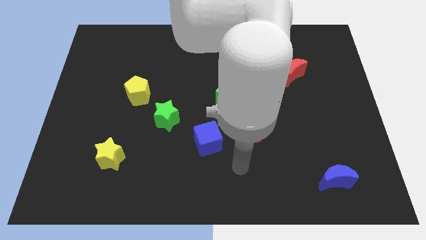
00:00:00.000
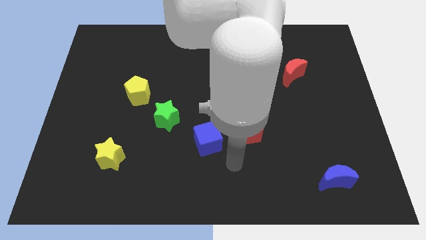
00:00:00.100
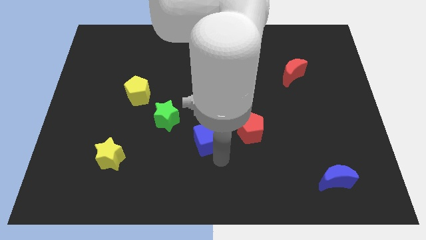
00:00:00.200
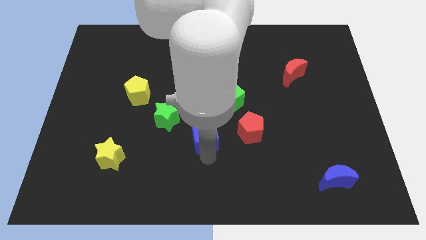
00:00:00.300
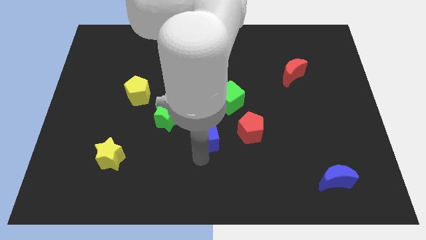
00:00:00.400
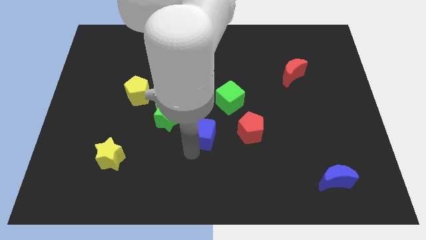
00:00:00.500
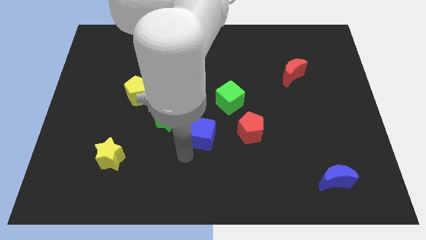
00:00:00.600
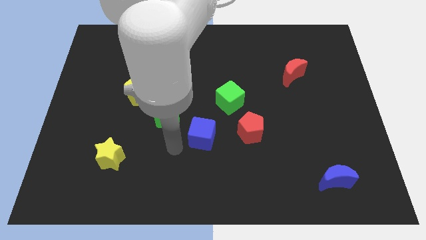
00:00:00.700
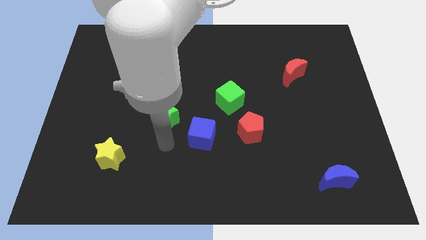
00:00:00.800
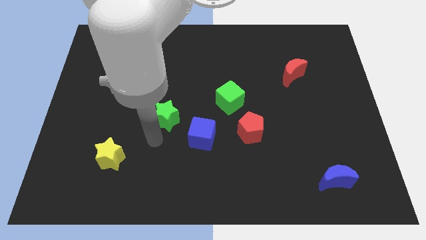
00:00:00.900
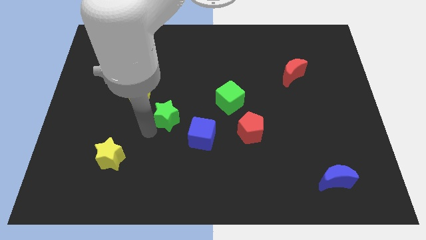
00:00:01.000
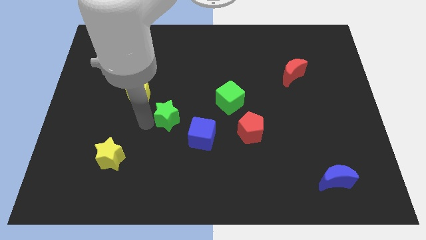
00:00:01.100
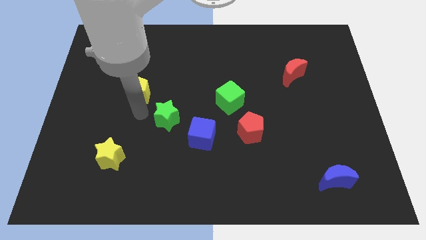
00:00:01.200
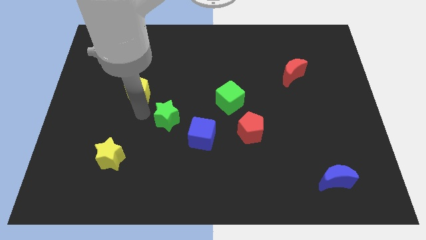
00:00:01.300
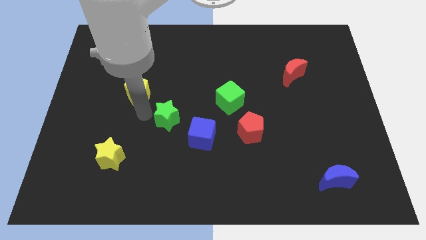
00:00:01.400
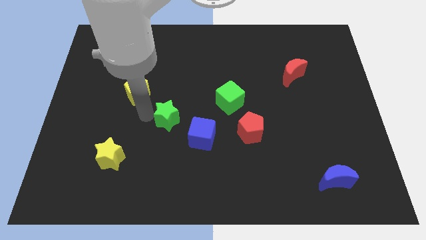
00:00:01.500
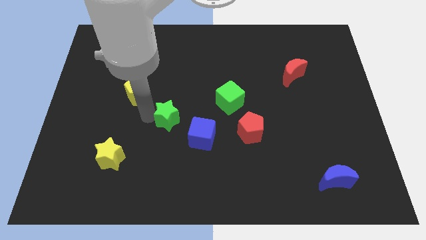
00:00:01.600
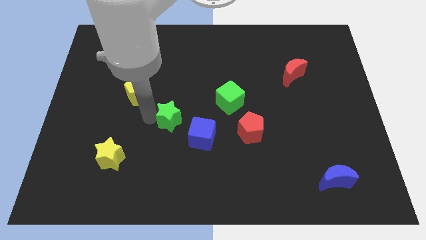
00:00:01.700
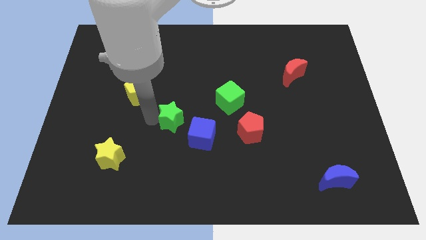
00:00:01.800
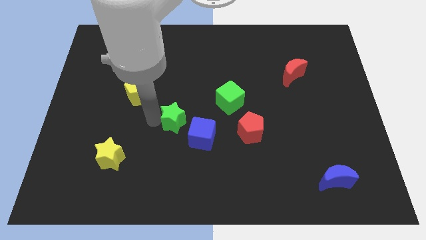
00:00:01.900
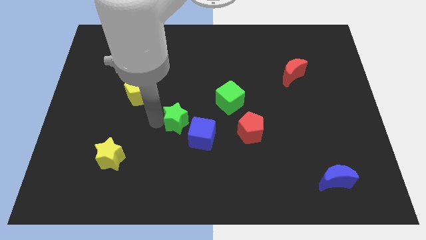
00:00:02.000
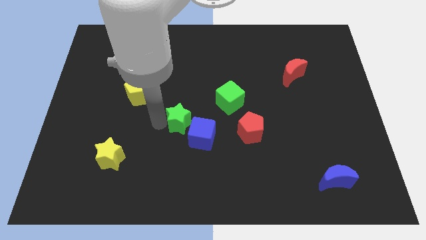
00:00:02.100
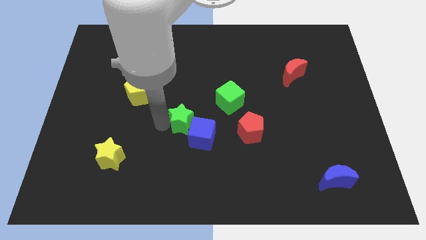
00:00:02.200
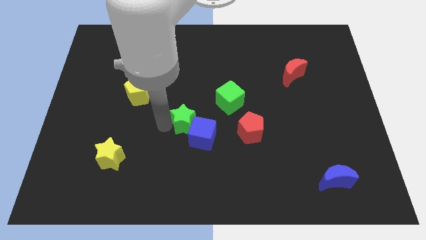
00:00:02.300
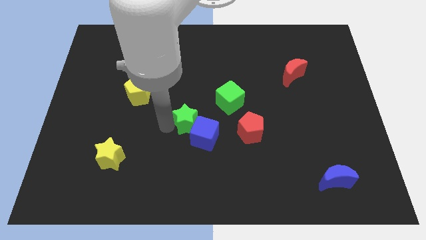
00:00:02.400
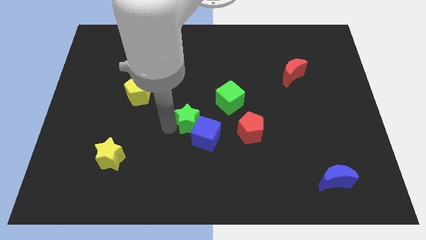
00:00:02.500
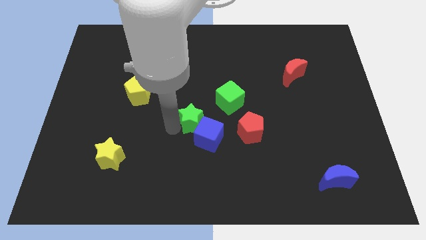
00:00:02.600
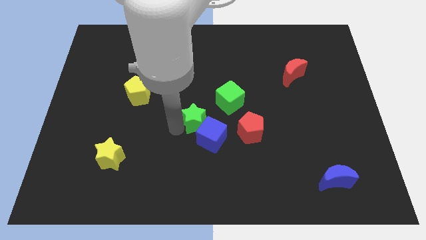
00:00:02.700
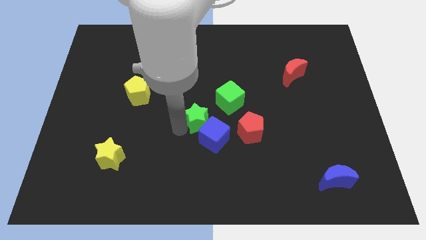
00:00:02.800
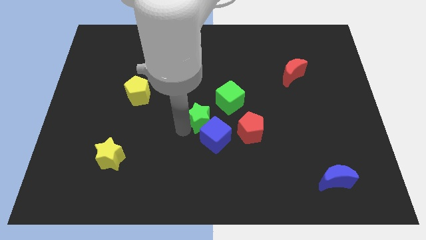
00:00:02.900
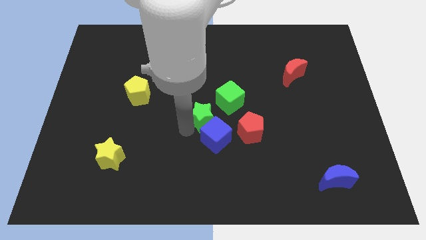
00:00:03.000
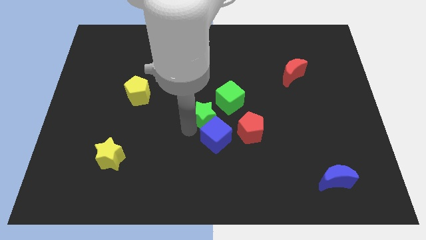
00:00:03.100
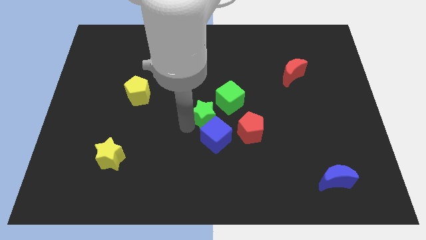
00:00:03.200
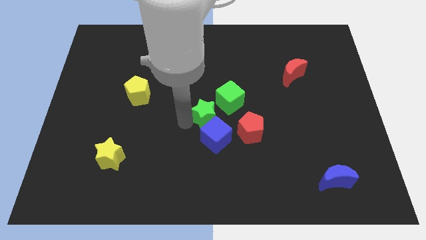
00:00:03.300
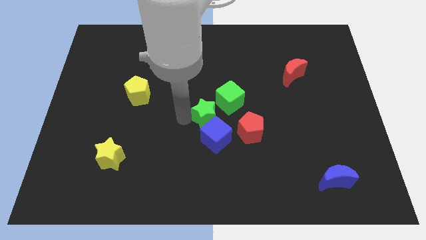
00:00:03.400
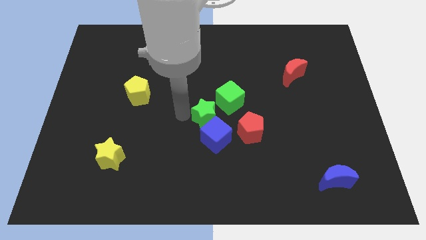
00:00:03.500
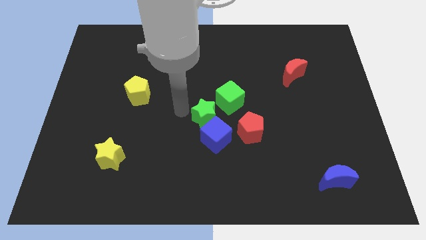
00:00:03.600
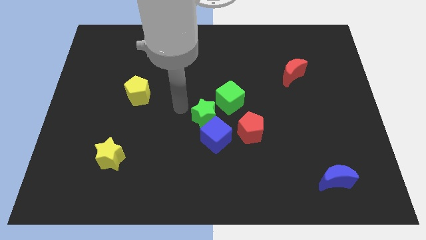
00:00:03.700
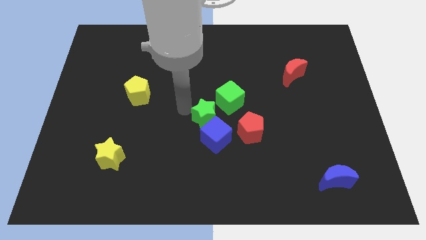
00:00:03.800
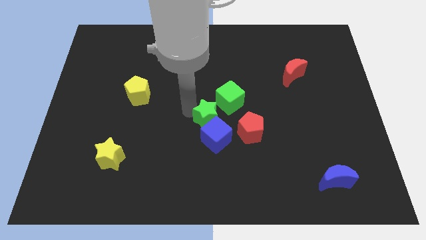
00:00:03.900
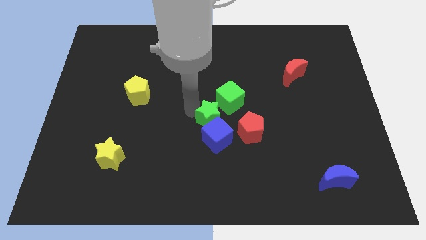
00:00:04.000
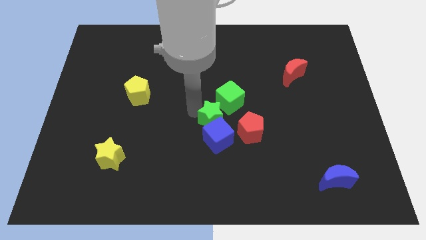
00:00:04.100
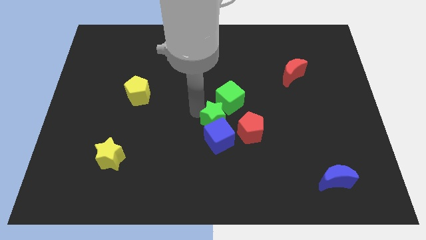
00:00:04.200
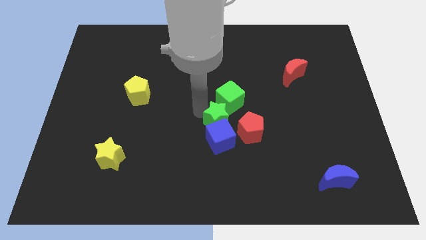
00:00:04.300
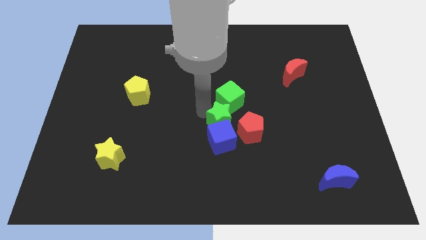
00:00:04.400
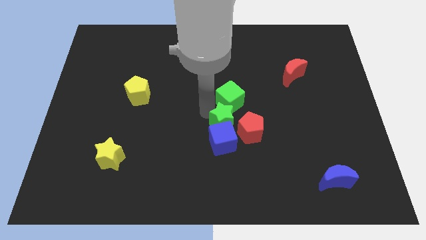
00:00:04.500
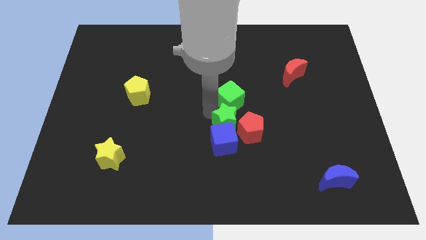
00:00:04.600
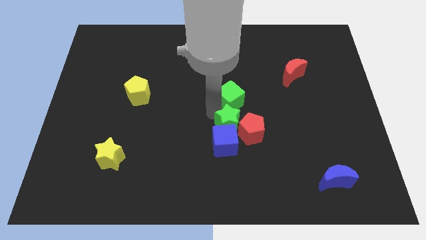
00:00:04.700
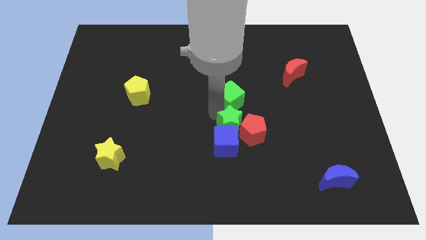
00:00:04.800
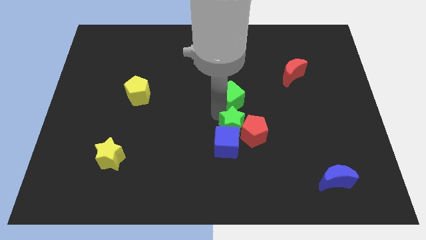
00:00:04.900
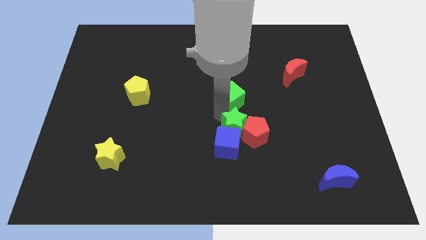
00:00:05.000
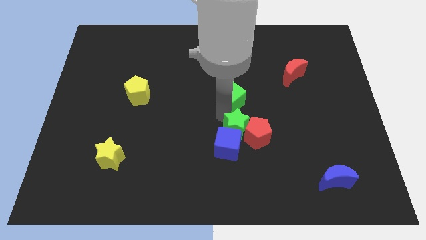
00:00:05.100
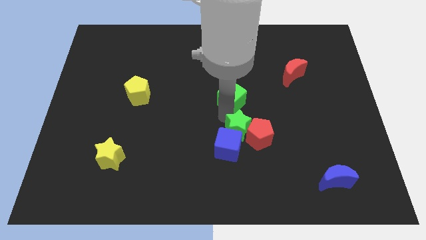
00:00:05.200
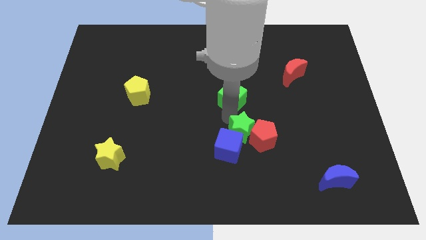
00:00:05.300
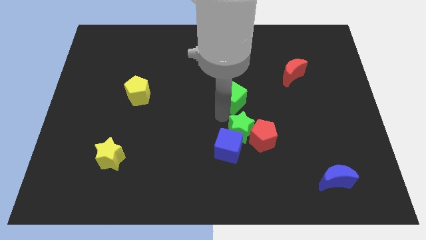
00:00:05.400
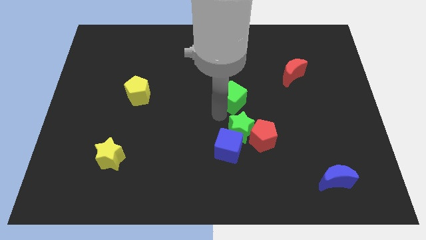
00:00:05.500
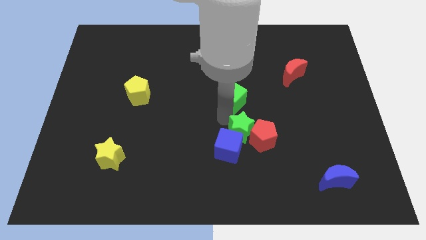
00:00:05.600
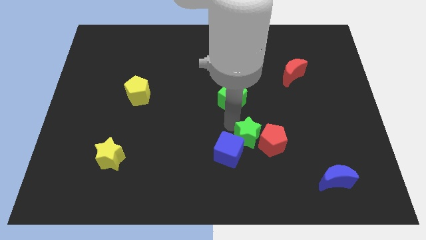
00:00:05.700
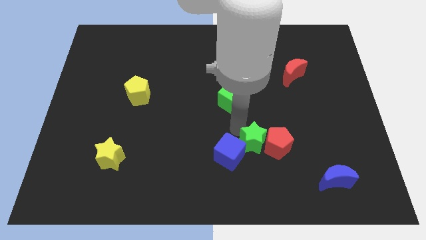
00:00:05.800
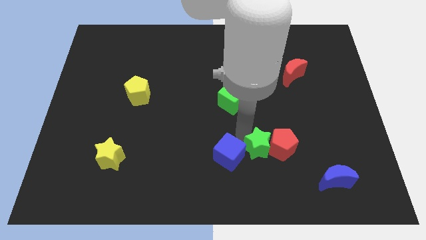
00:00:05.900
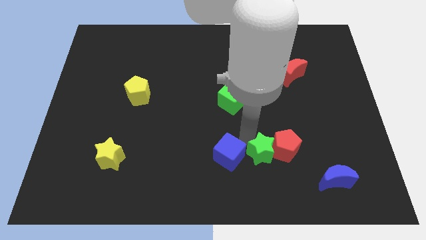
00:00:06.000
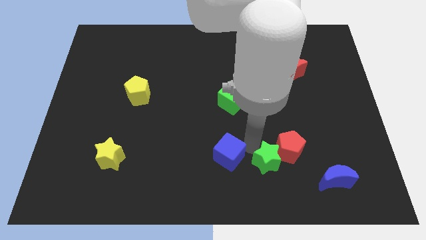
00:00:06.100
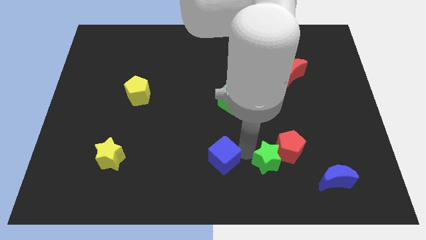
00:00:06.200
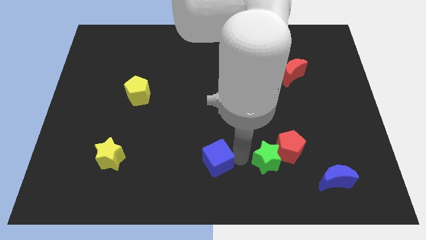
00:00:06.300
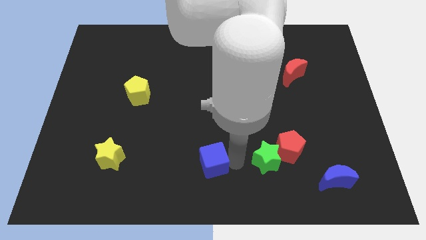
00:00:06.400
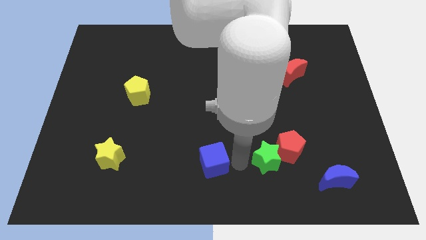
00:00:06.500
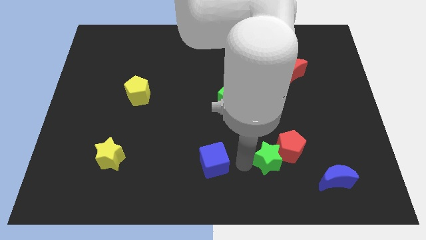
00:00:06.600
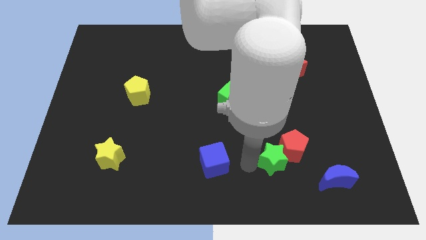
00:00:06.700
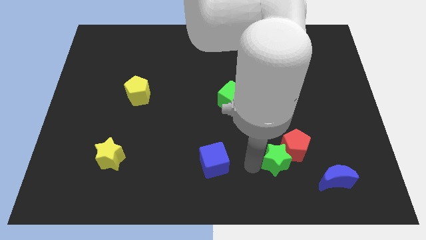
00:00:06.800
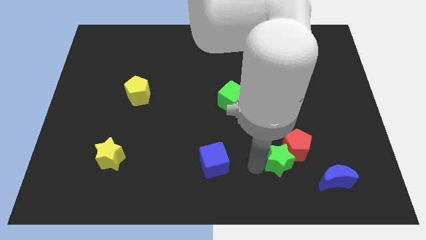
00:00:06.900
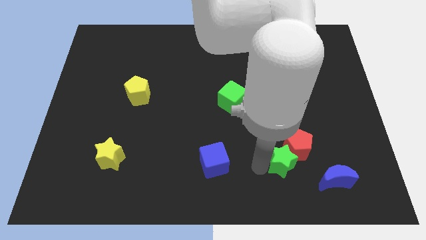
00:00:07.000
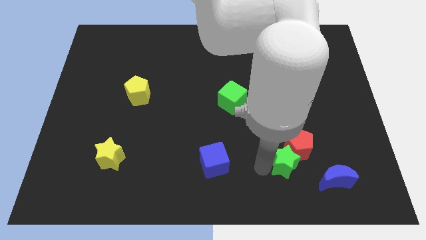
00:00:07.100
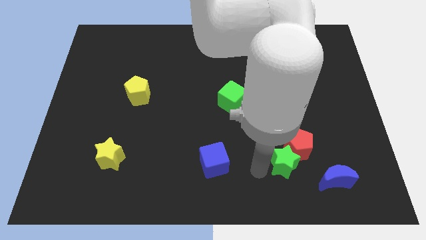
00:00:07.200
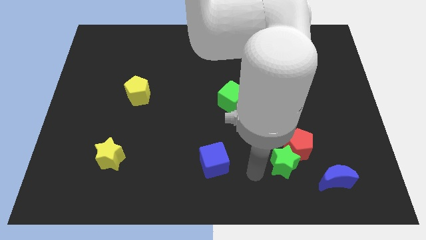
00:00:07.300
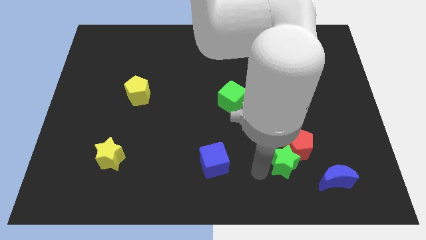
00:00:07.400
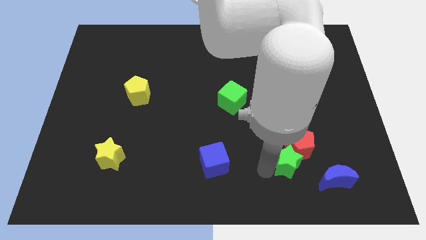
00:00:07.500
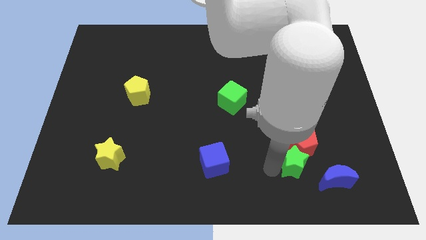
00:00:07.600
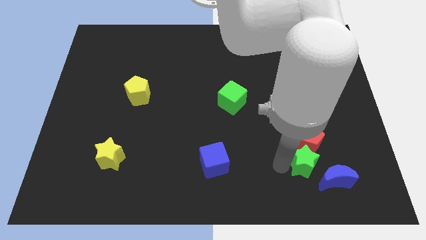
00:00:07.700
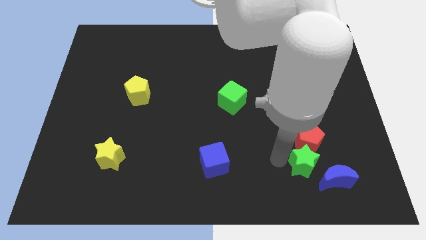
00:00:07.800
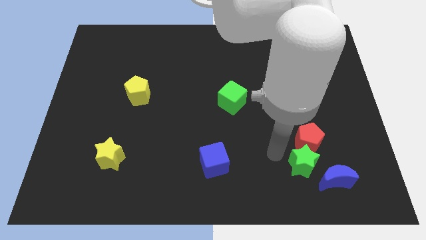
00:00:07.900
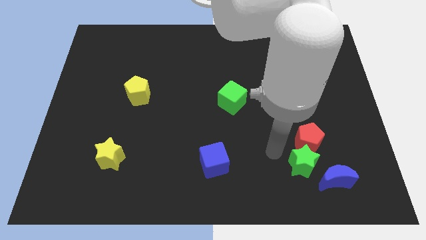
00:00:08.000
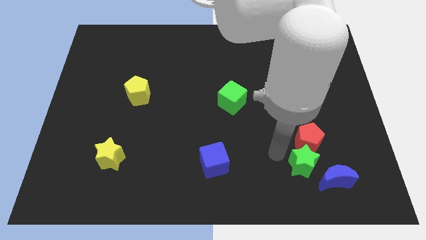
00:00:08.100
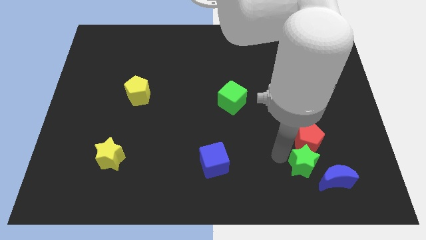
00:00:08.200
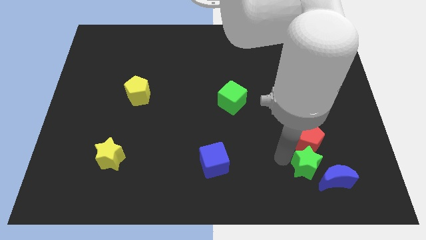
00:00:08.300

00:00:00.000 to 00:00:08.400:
move the green star next to the blue moon
